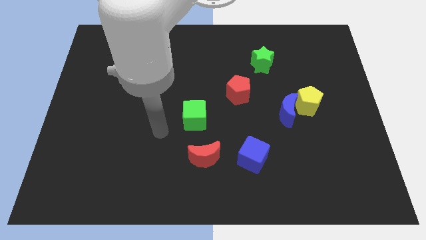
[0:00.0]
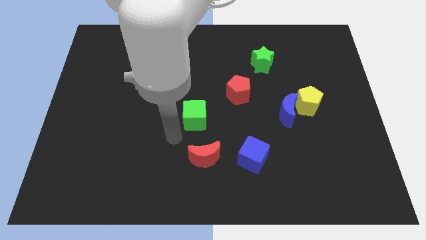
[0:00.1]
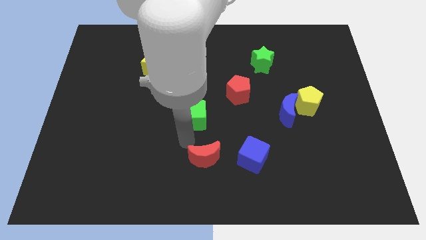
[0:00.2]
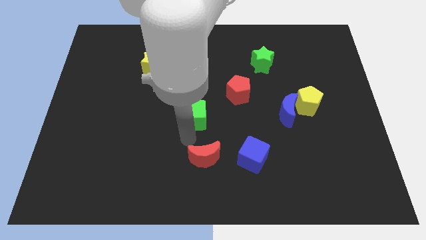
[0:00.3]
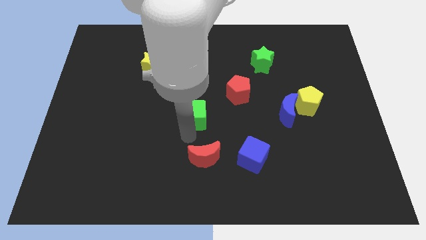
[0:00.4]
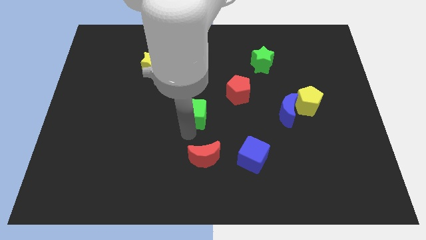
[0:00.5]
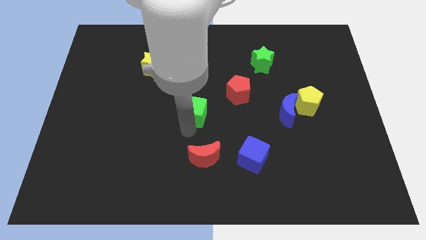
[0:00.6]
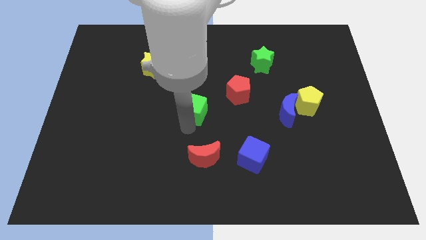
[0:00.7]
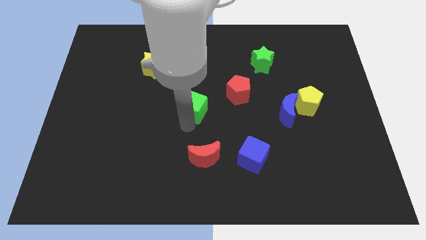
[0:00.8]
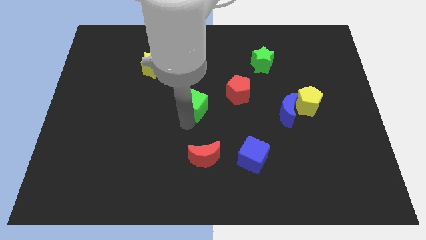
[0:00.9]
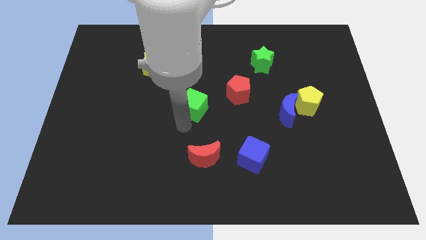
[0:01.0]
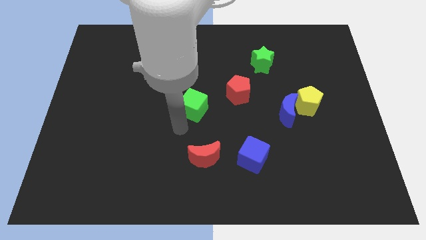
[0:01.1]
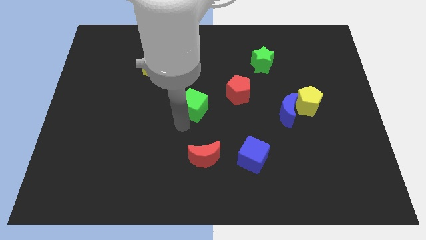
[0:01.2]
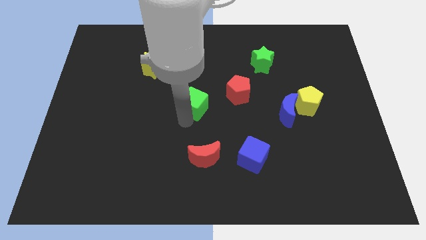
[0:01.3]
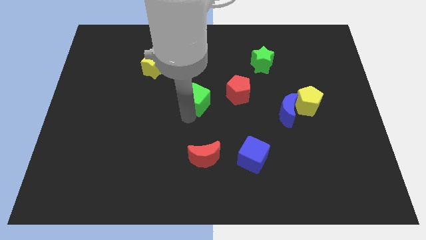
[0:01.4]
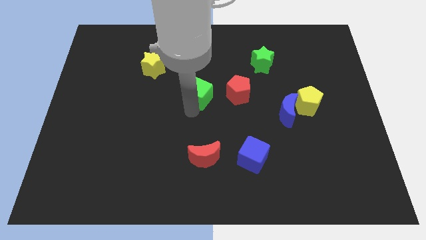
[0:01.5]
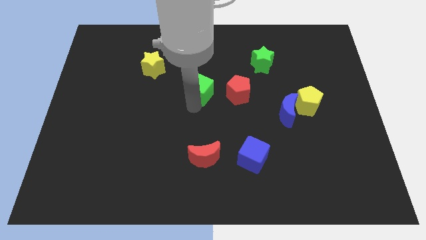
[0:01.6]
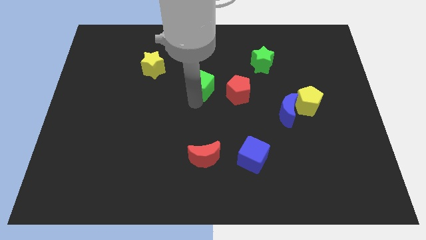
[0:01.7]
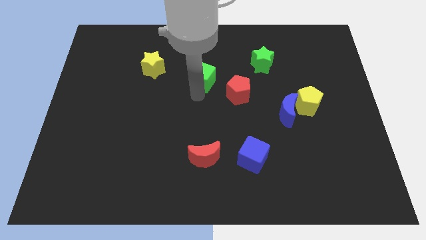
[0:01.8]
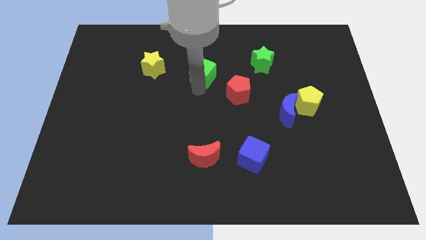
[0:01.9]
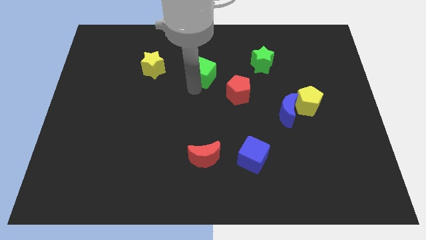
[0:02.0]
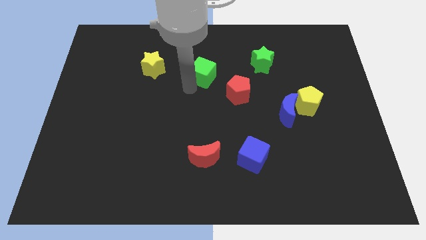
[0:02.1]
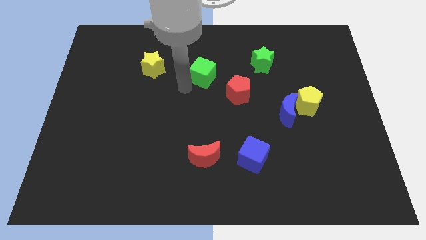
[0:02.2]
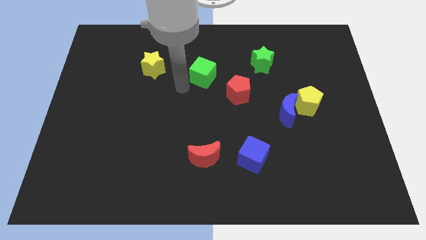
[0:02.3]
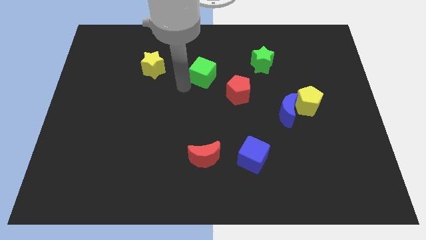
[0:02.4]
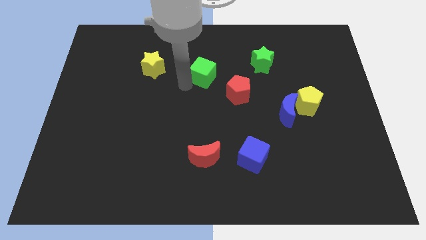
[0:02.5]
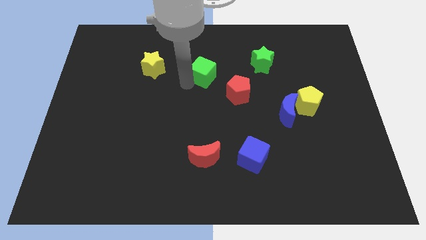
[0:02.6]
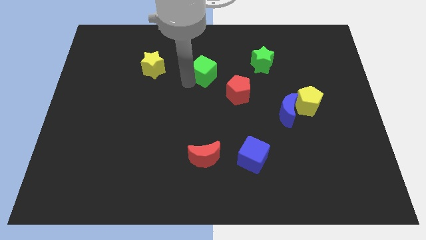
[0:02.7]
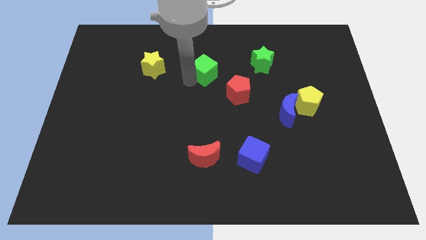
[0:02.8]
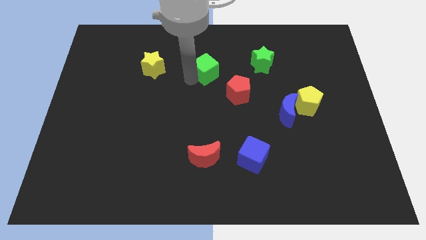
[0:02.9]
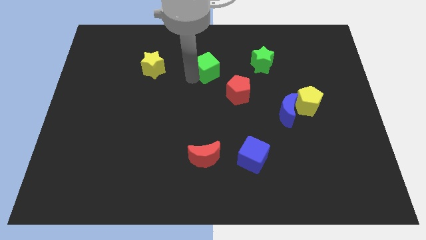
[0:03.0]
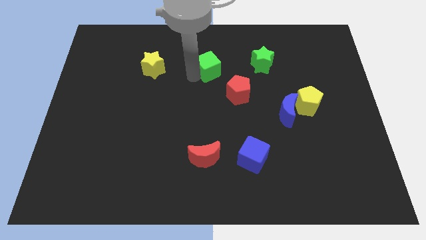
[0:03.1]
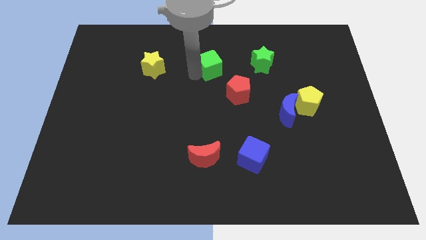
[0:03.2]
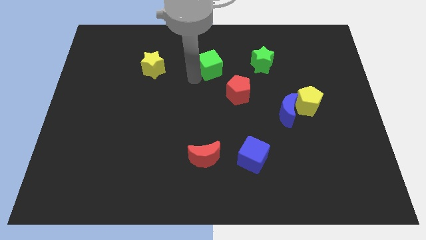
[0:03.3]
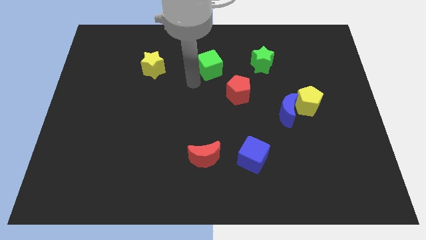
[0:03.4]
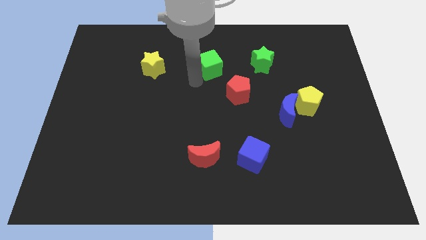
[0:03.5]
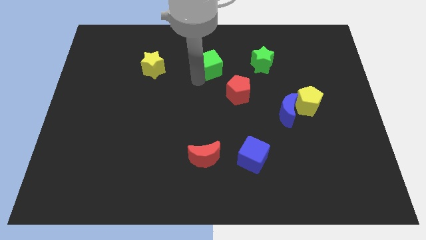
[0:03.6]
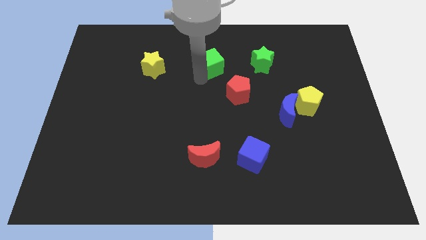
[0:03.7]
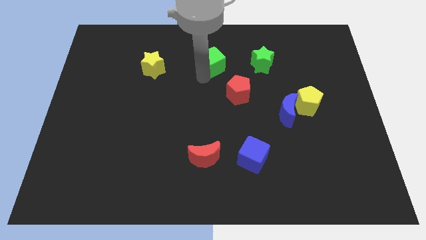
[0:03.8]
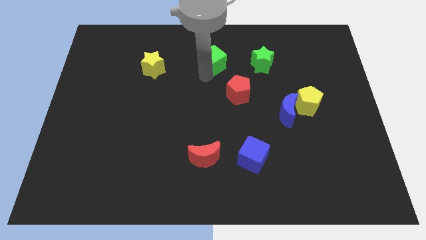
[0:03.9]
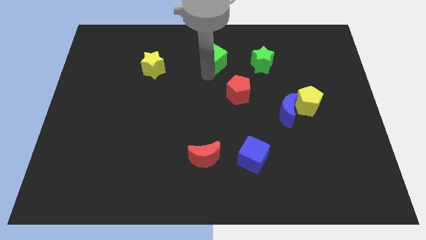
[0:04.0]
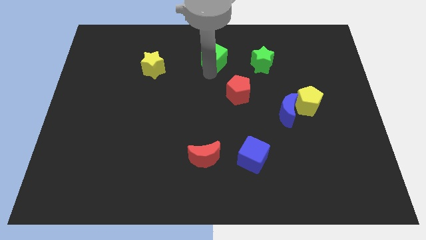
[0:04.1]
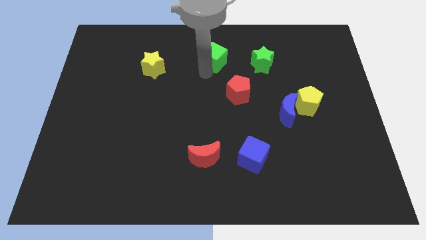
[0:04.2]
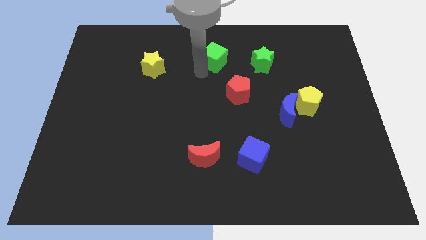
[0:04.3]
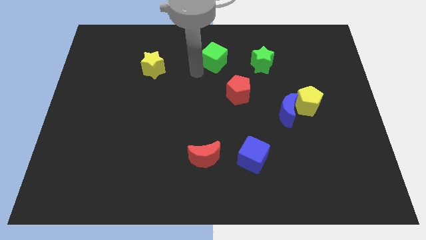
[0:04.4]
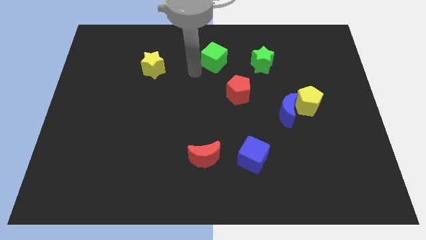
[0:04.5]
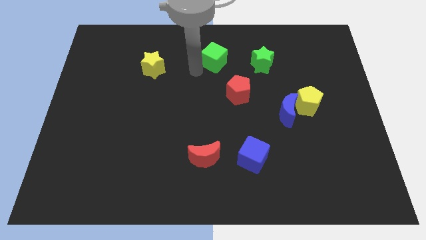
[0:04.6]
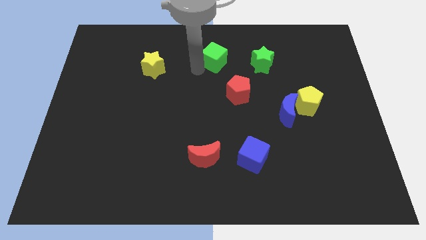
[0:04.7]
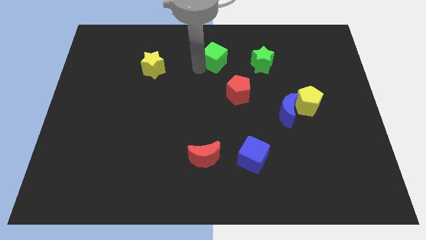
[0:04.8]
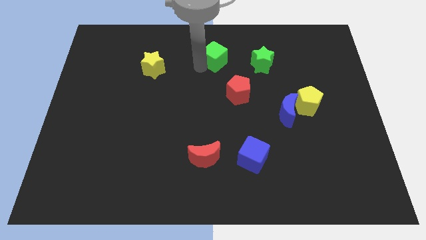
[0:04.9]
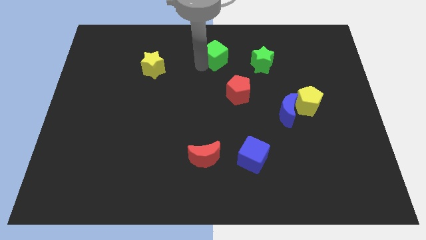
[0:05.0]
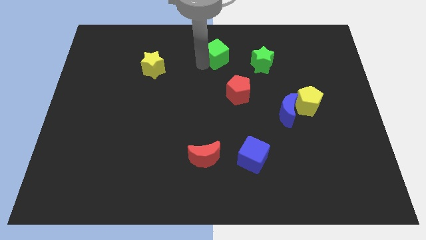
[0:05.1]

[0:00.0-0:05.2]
slide the green cube to the top side

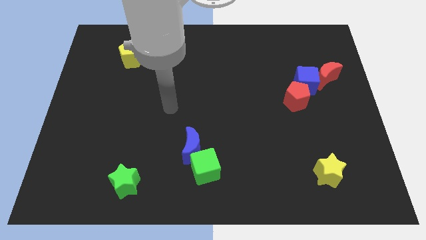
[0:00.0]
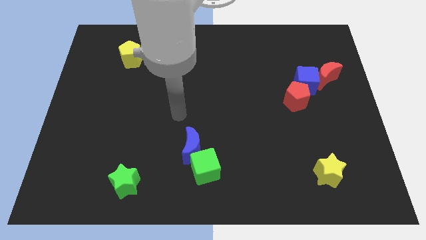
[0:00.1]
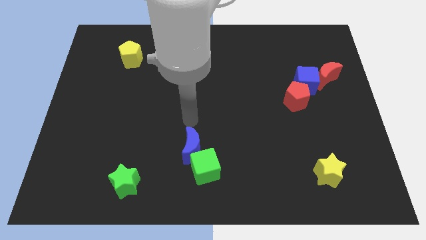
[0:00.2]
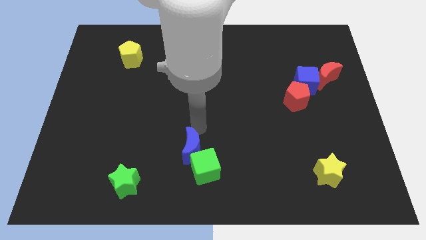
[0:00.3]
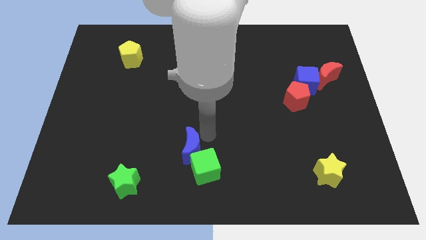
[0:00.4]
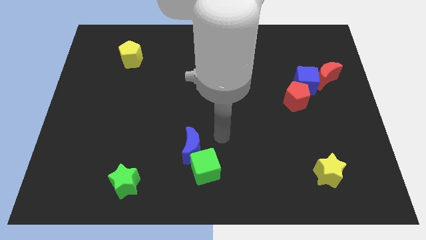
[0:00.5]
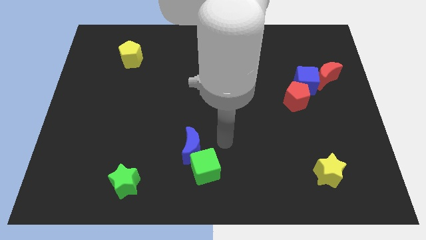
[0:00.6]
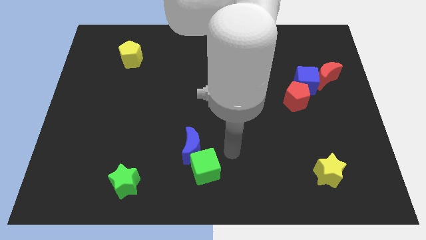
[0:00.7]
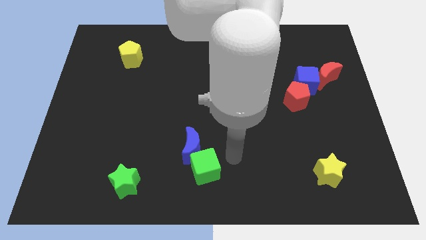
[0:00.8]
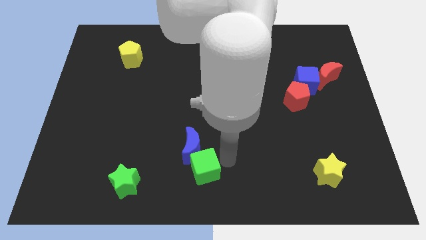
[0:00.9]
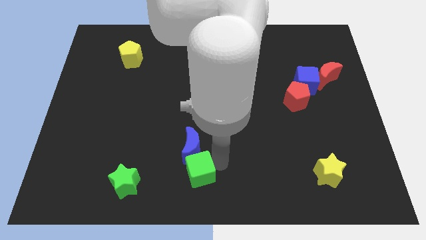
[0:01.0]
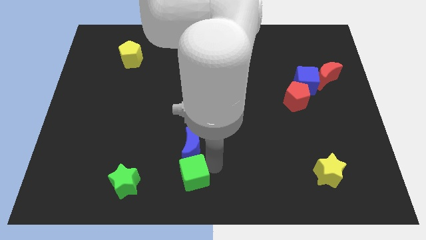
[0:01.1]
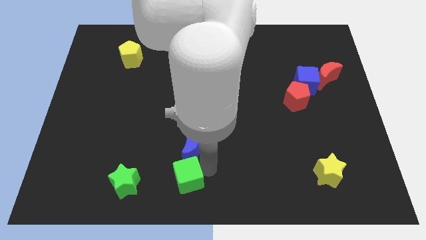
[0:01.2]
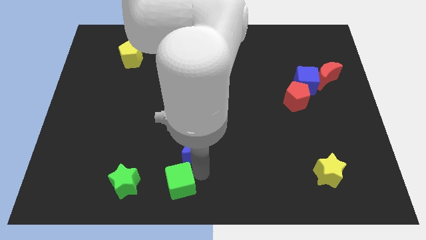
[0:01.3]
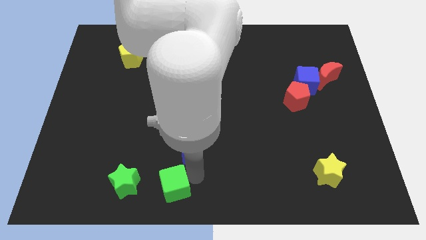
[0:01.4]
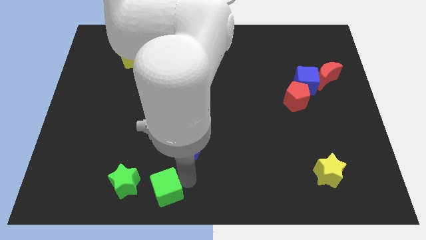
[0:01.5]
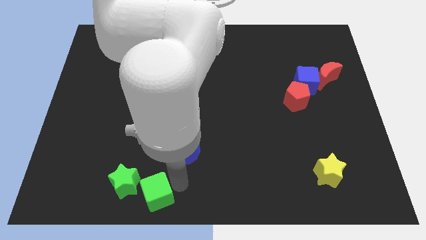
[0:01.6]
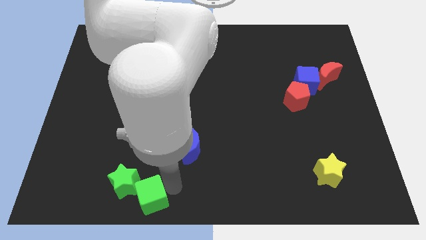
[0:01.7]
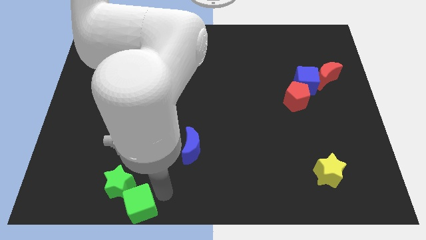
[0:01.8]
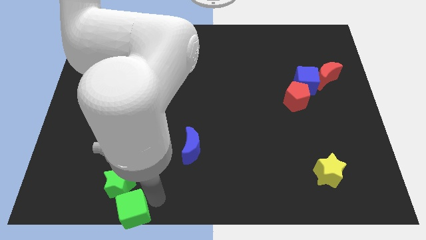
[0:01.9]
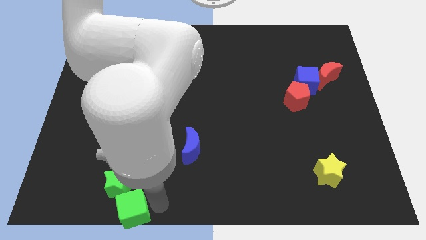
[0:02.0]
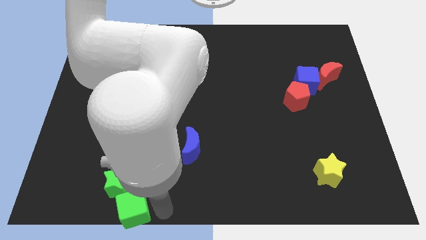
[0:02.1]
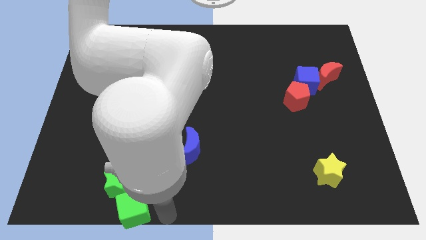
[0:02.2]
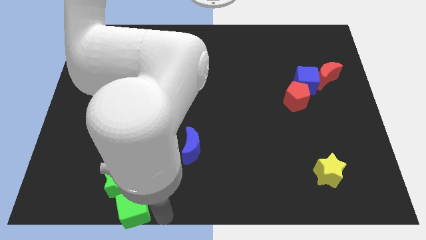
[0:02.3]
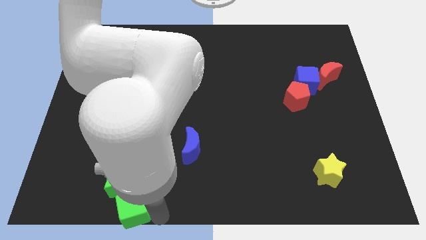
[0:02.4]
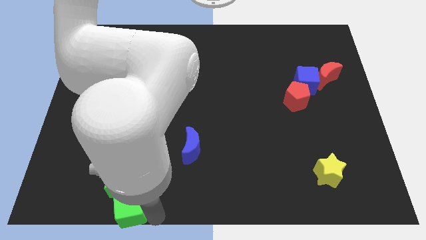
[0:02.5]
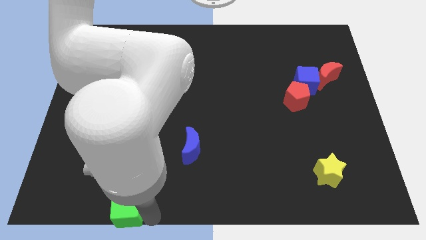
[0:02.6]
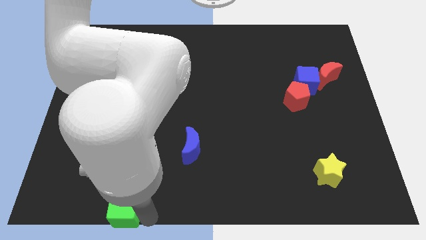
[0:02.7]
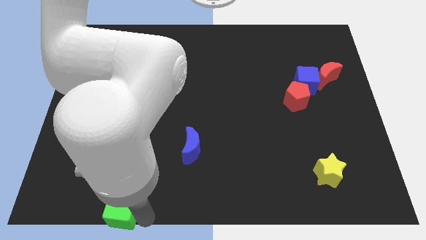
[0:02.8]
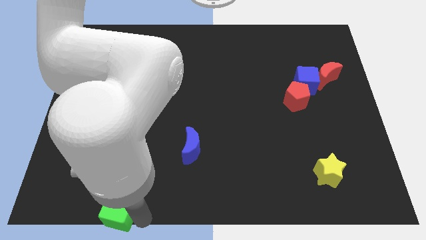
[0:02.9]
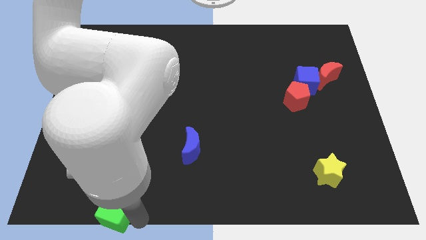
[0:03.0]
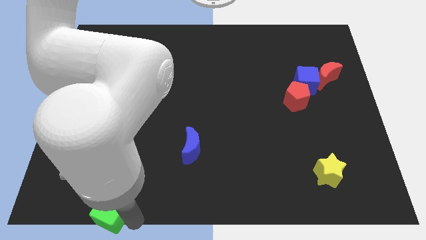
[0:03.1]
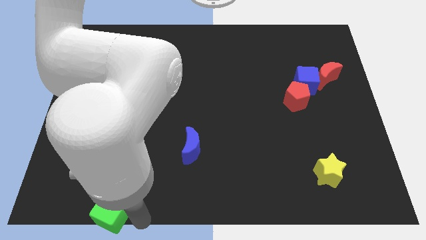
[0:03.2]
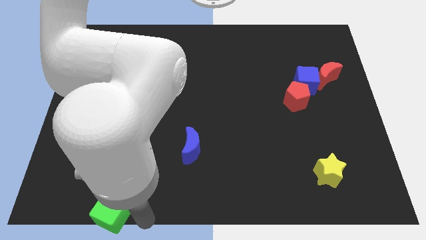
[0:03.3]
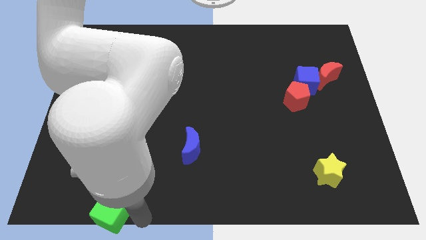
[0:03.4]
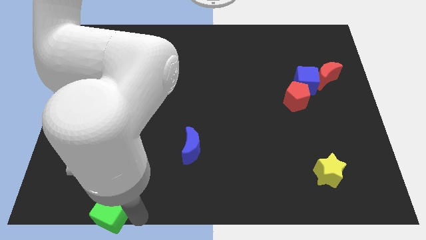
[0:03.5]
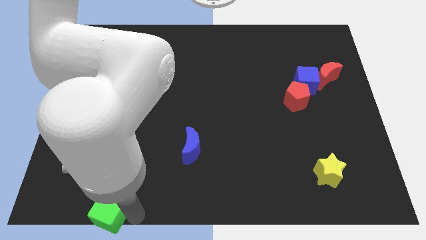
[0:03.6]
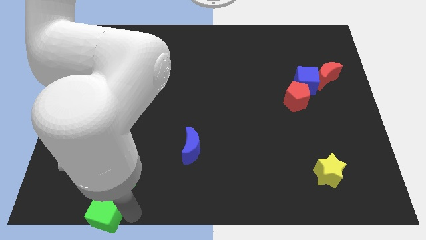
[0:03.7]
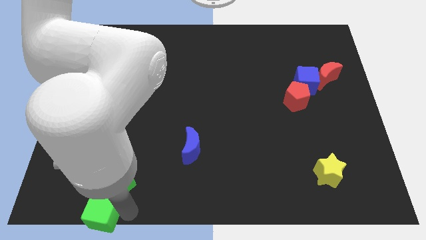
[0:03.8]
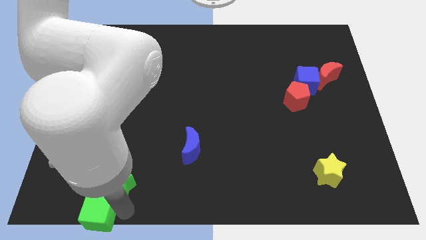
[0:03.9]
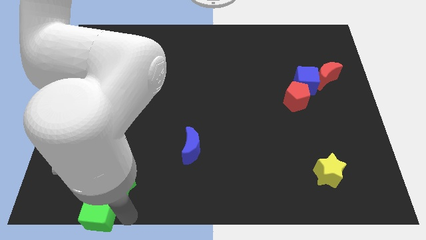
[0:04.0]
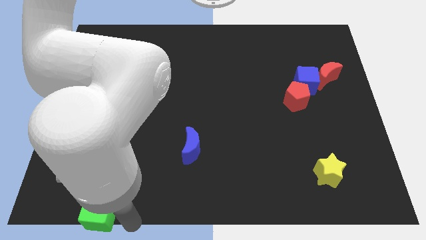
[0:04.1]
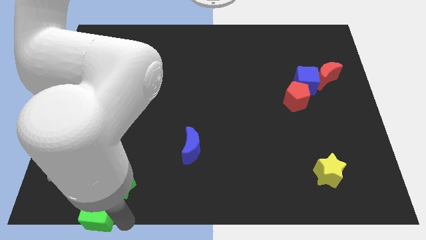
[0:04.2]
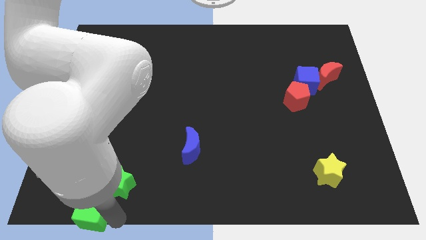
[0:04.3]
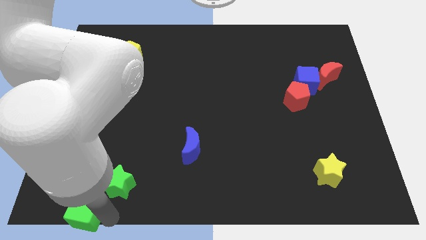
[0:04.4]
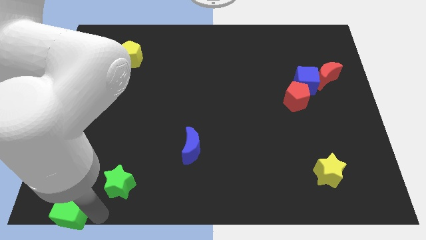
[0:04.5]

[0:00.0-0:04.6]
put the green cube to the bottom left of the board
